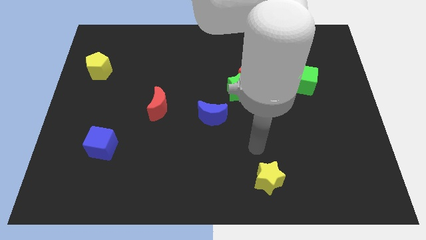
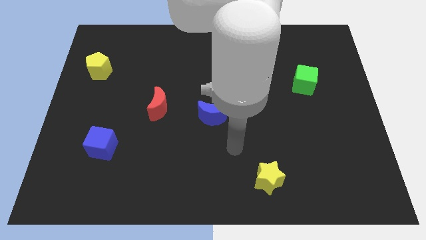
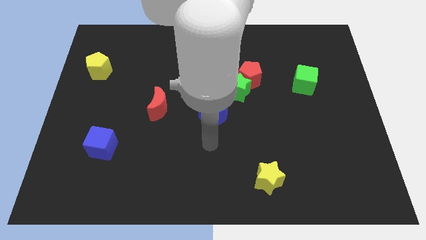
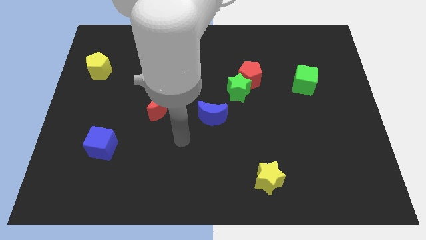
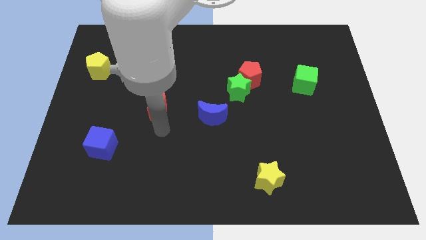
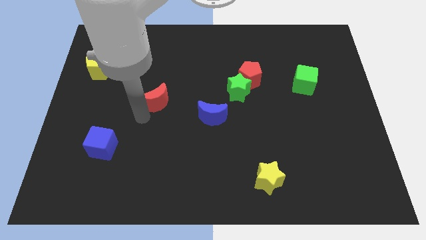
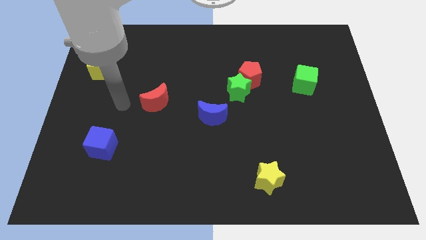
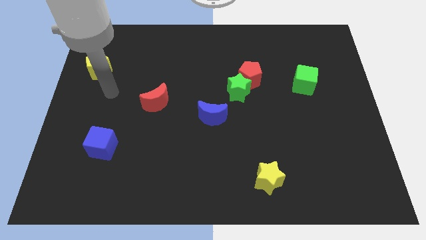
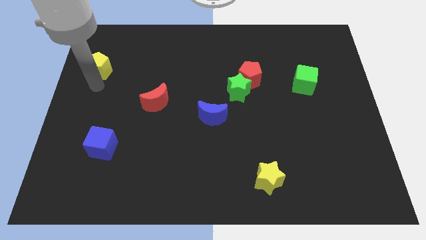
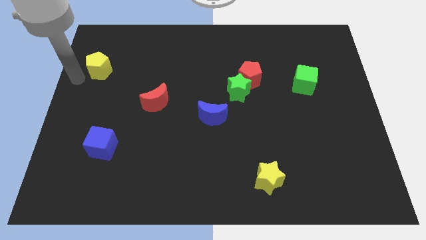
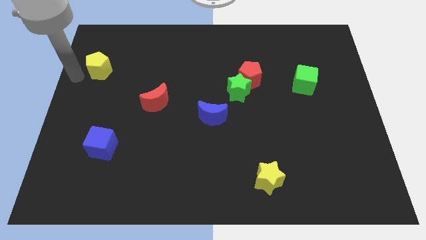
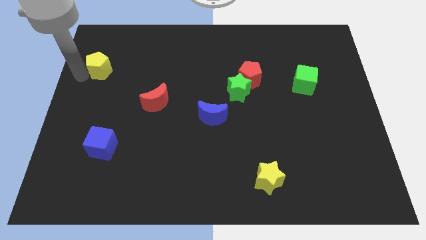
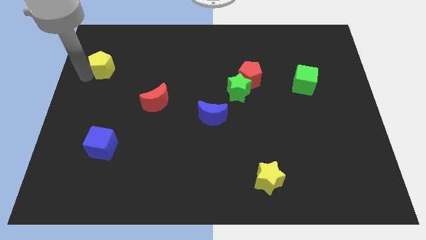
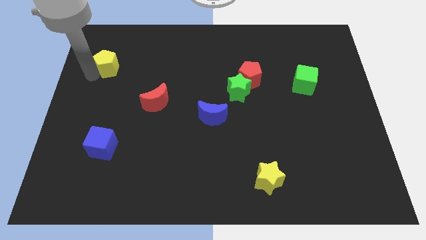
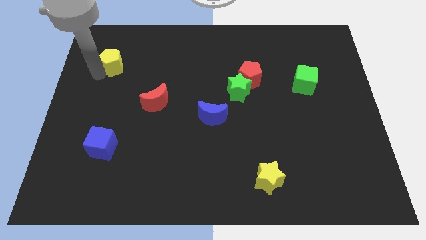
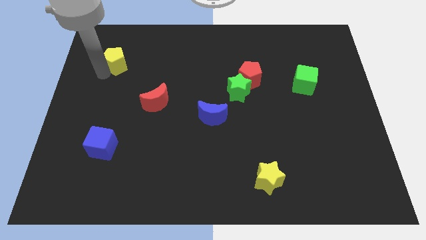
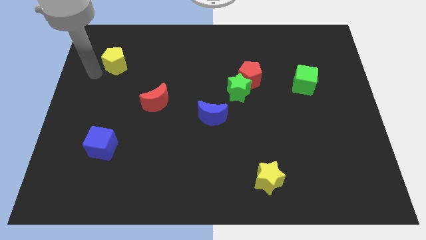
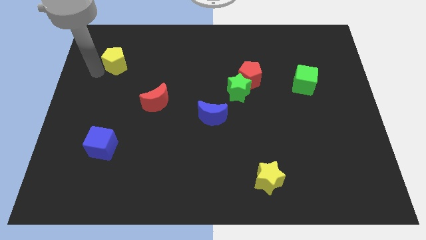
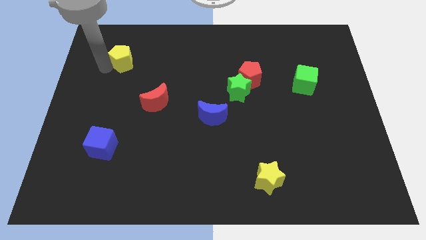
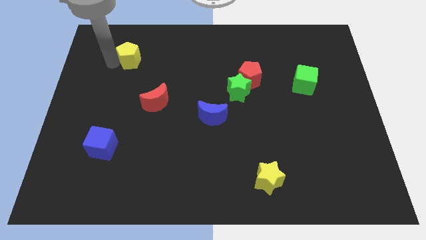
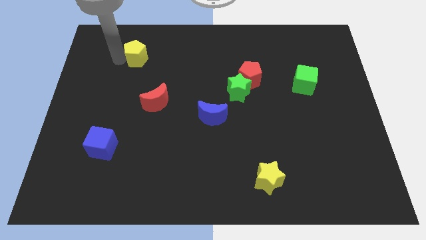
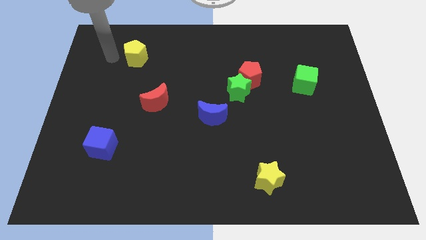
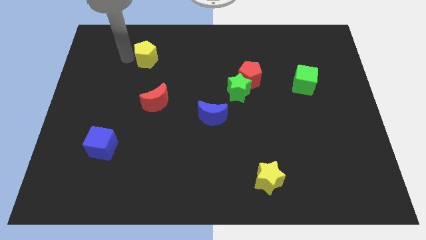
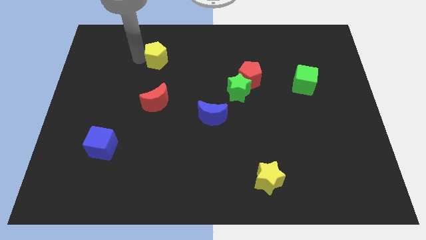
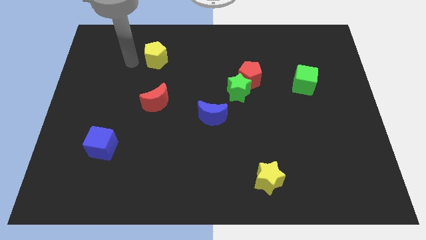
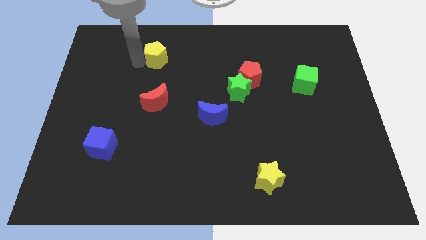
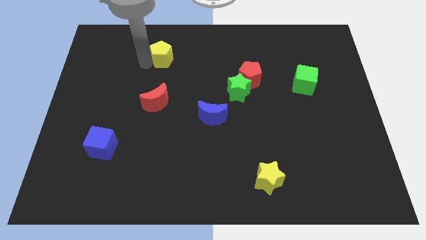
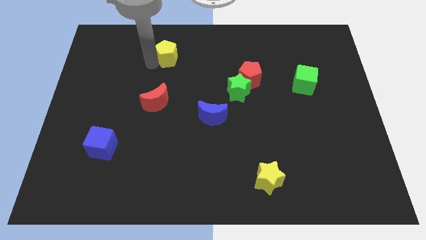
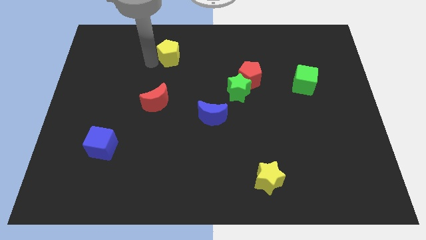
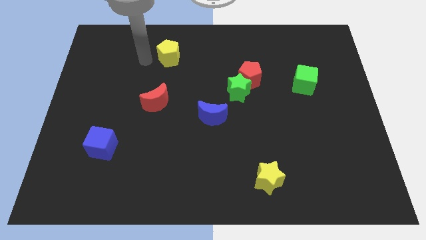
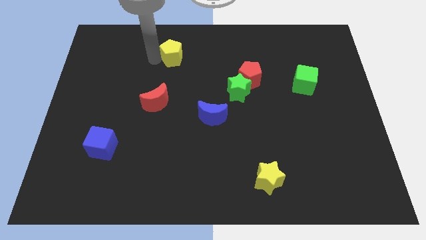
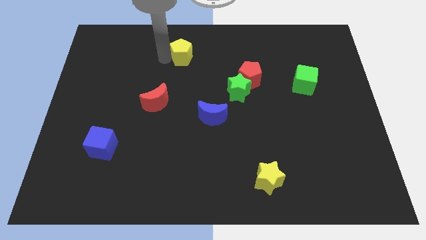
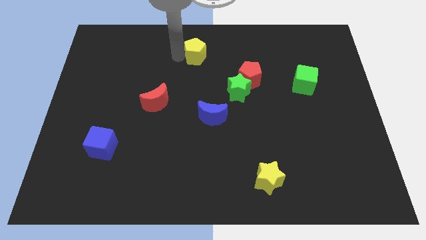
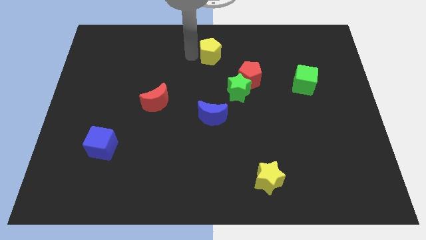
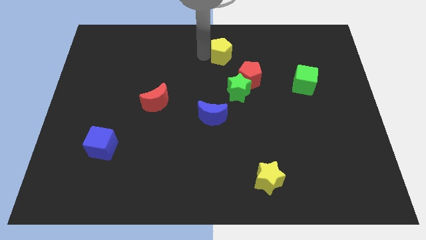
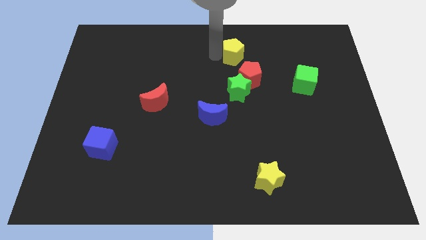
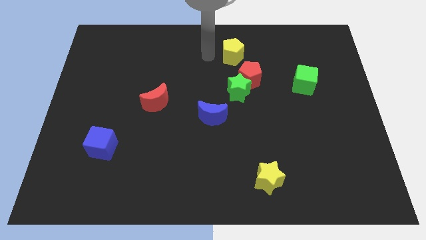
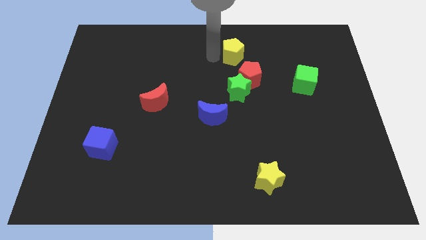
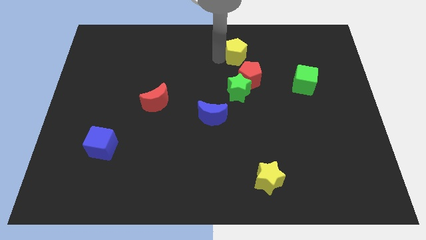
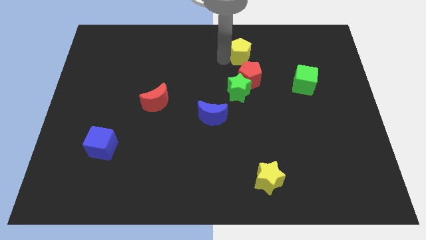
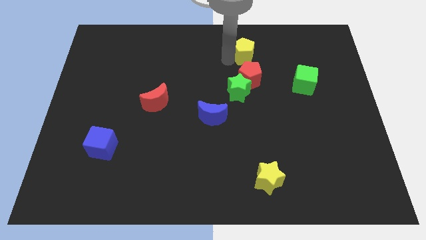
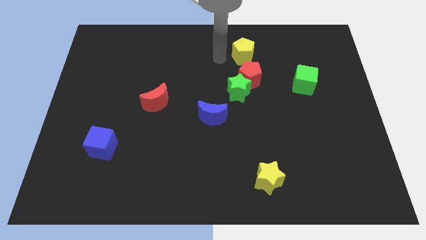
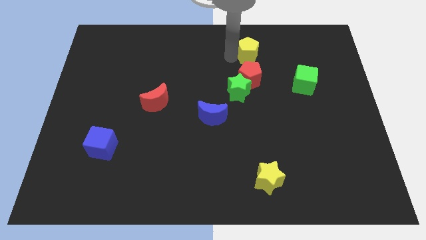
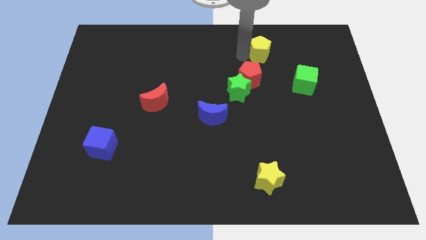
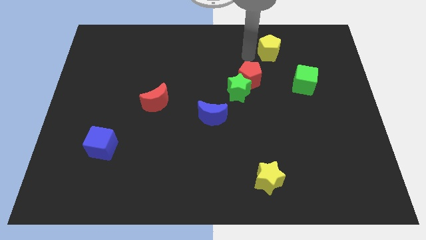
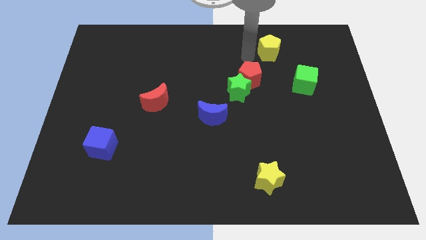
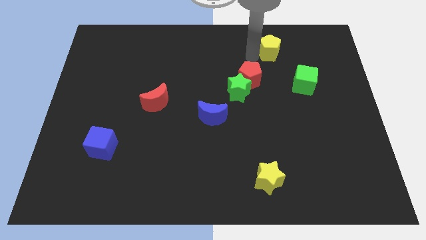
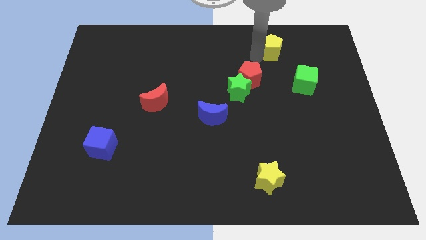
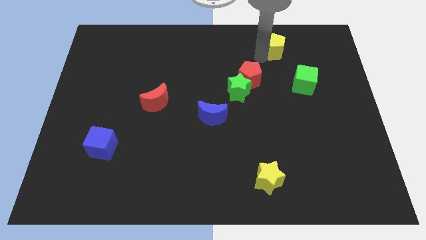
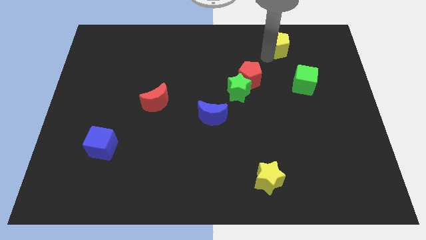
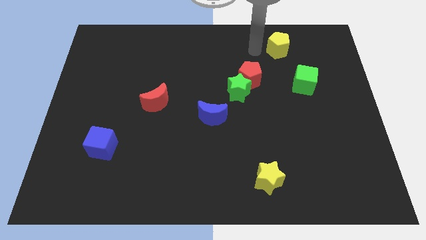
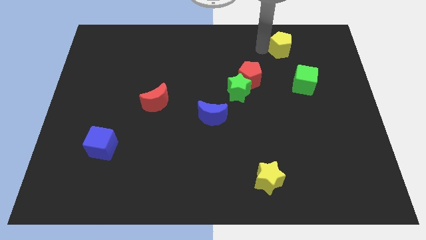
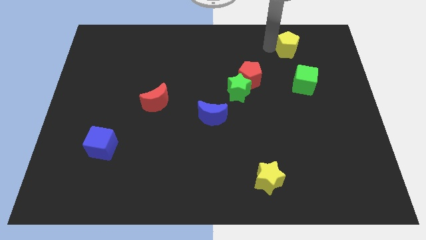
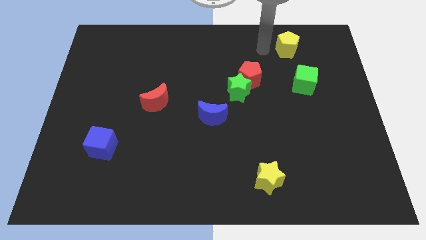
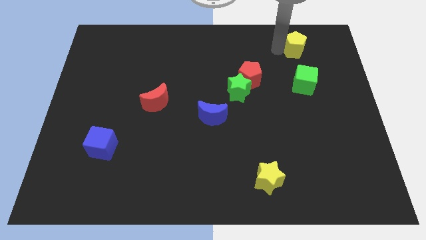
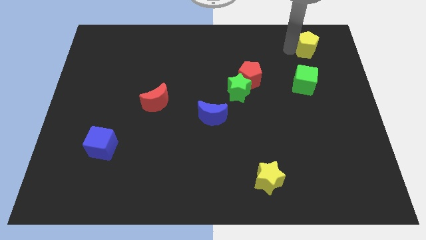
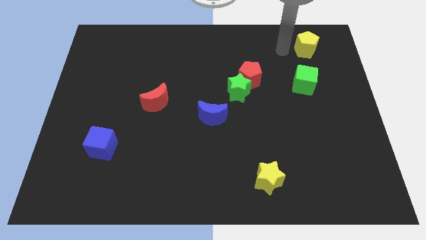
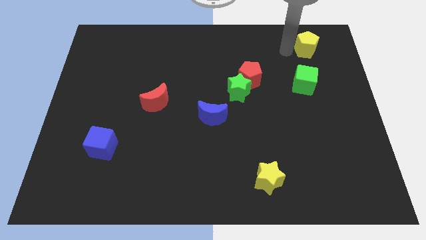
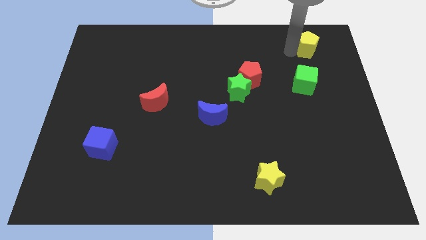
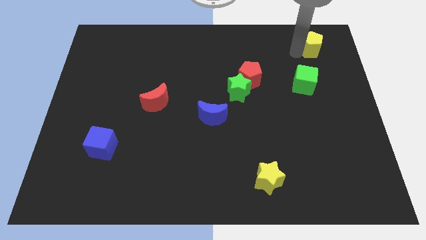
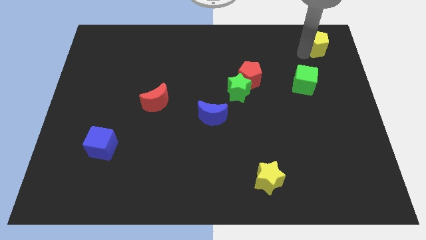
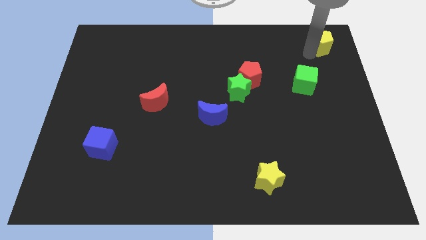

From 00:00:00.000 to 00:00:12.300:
slide the yellow pentagon to the top right of the board
